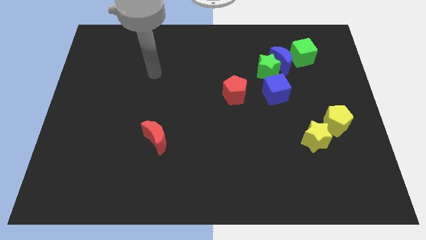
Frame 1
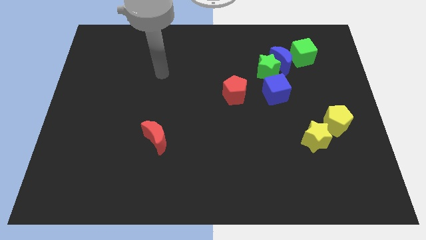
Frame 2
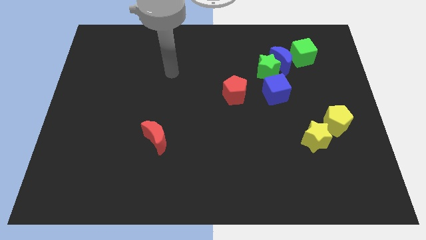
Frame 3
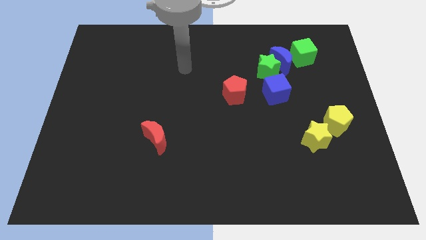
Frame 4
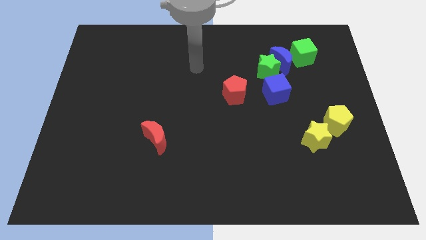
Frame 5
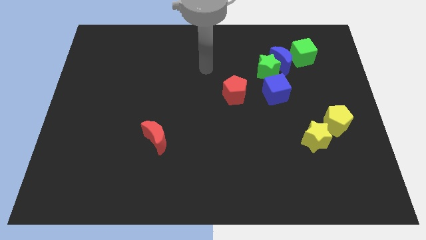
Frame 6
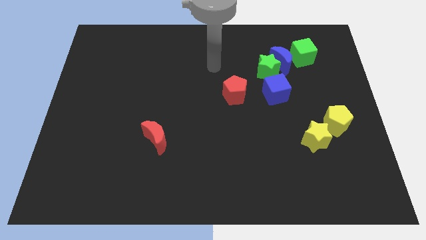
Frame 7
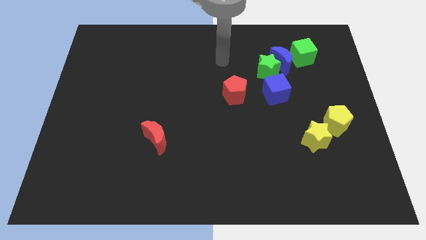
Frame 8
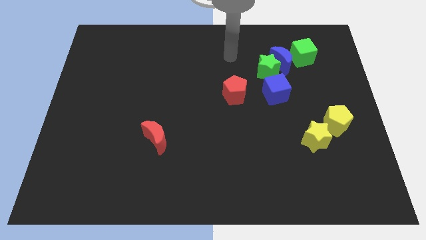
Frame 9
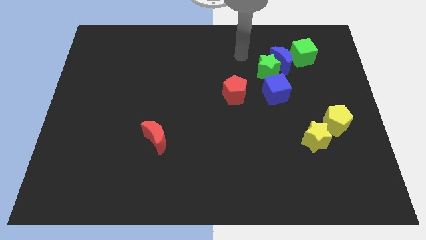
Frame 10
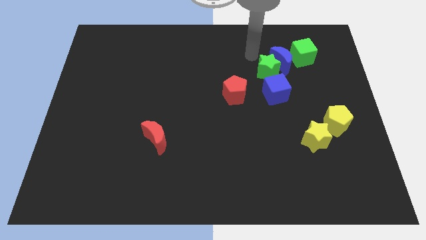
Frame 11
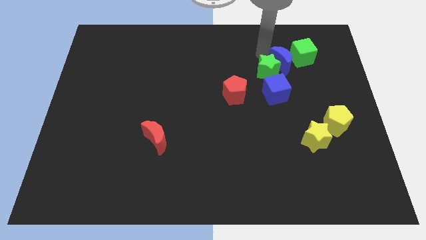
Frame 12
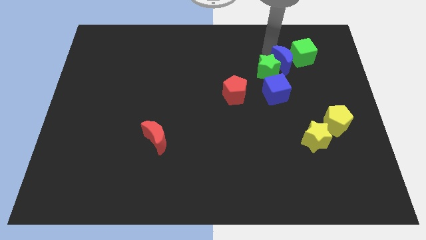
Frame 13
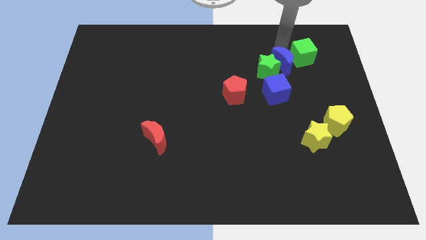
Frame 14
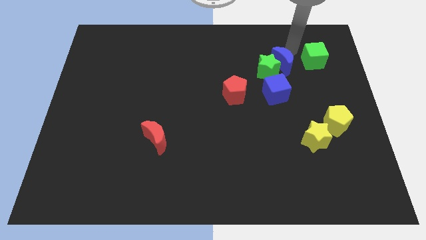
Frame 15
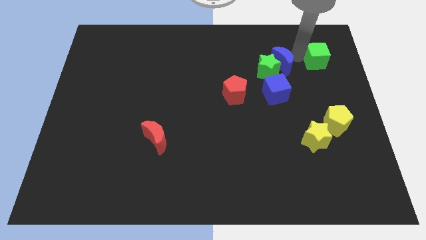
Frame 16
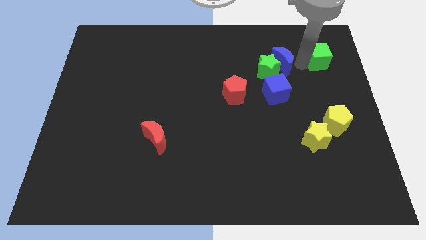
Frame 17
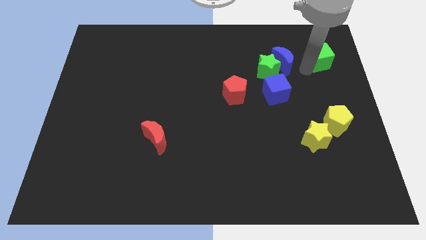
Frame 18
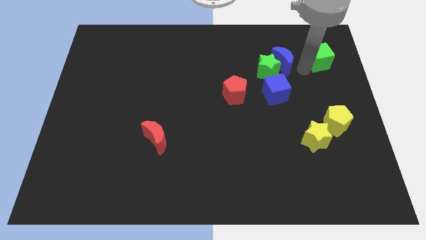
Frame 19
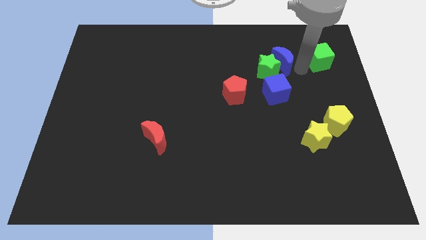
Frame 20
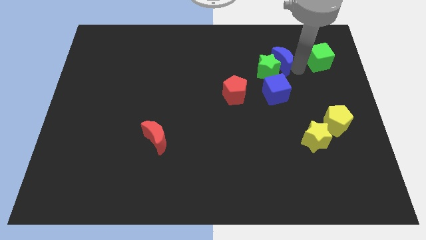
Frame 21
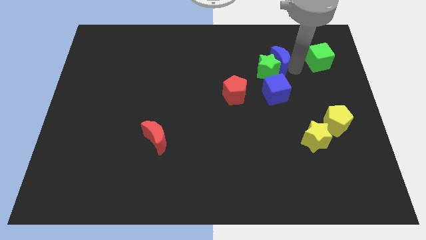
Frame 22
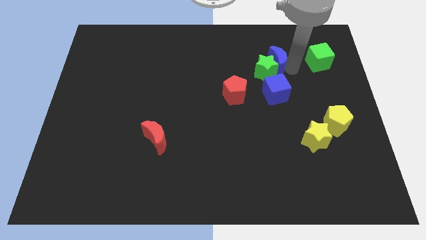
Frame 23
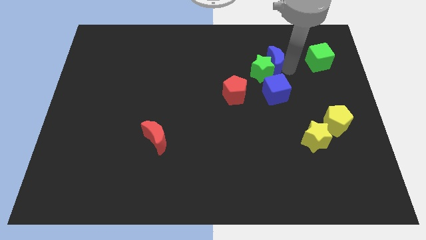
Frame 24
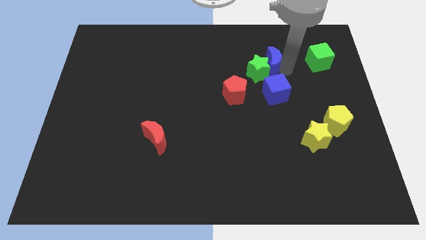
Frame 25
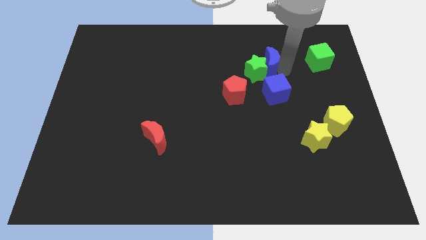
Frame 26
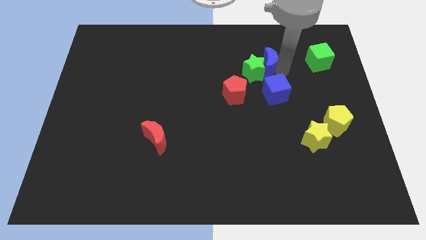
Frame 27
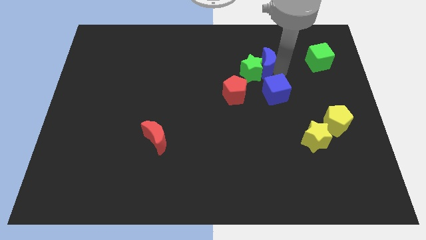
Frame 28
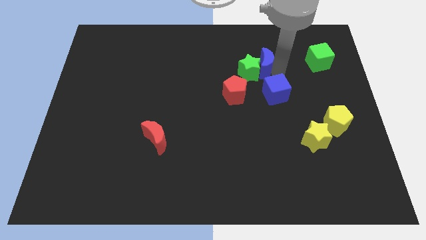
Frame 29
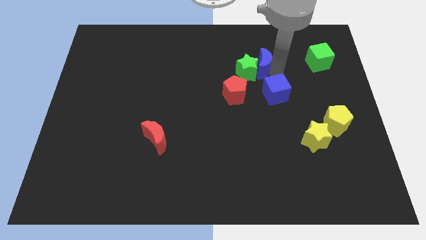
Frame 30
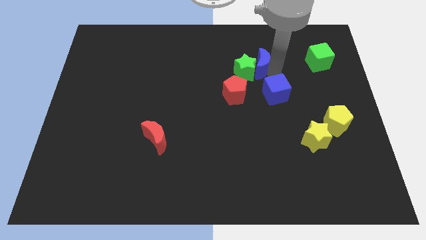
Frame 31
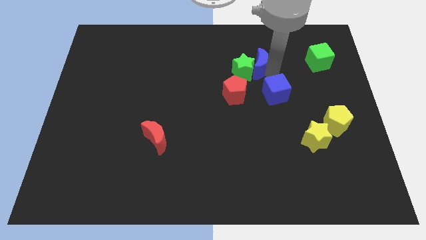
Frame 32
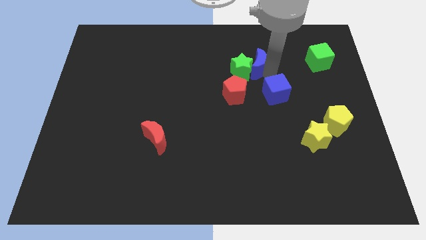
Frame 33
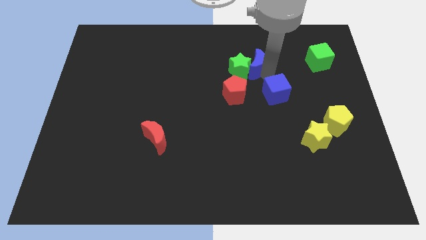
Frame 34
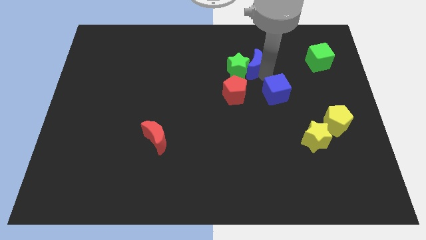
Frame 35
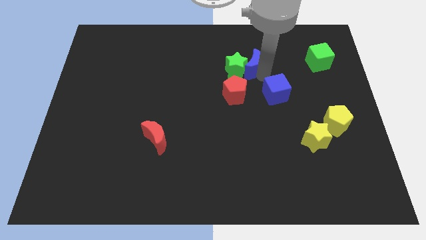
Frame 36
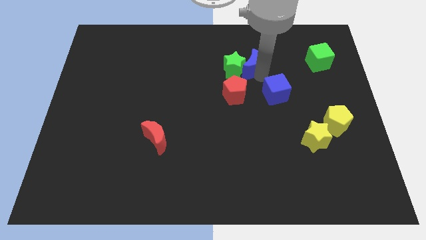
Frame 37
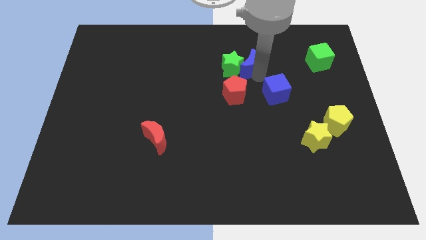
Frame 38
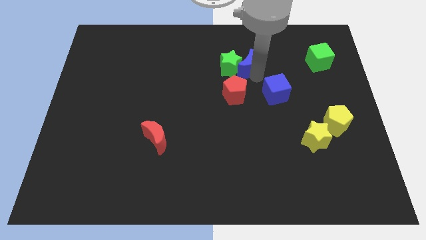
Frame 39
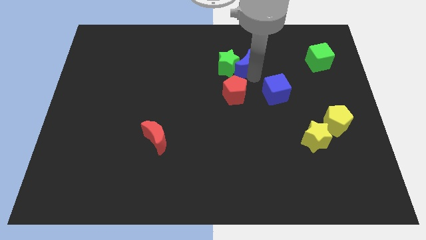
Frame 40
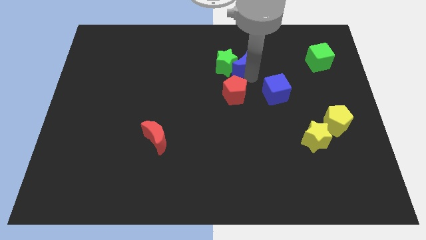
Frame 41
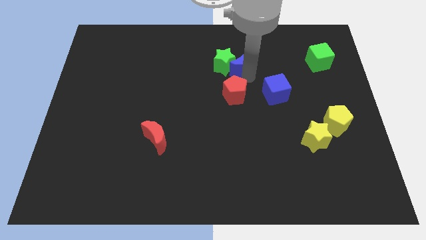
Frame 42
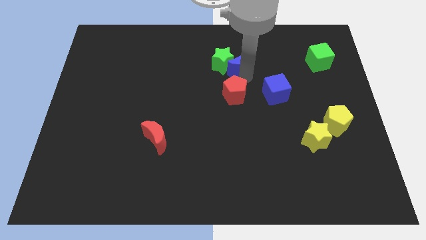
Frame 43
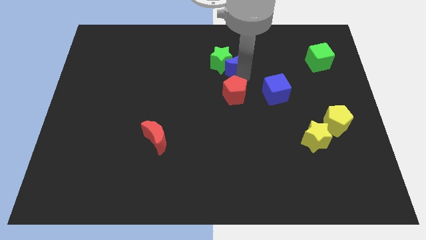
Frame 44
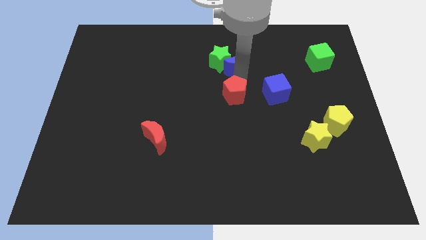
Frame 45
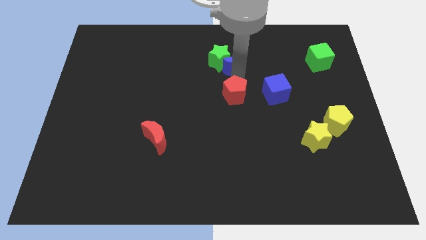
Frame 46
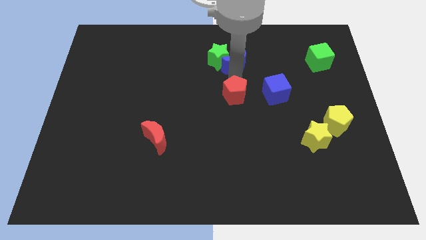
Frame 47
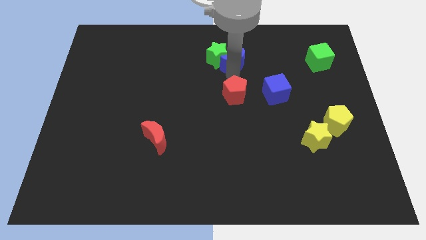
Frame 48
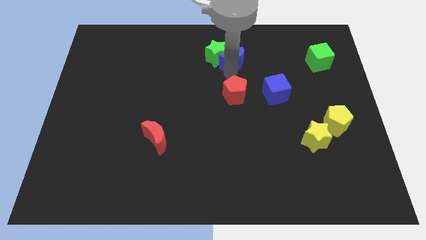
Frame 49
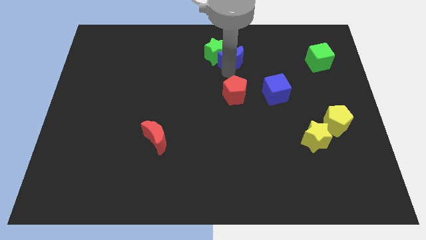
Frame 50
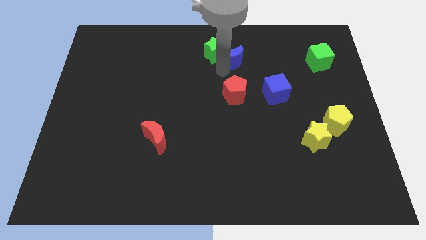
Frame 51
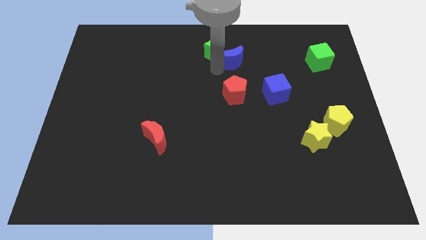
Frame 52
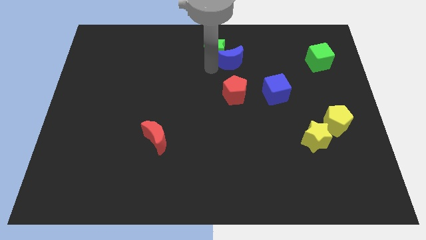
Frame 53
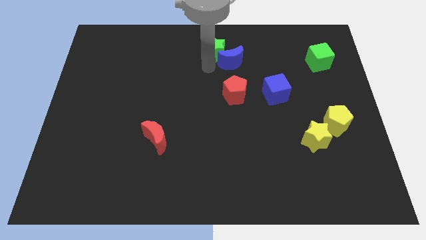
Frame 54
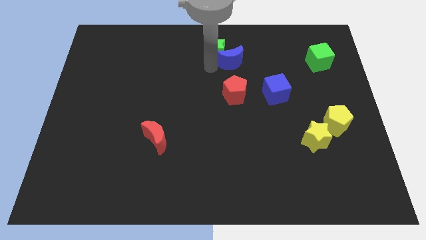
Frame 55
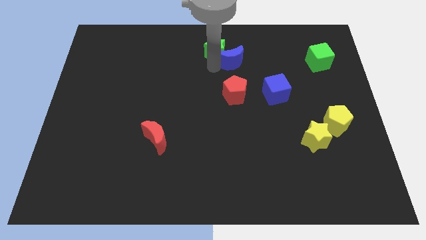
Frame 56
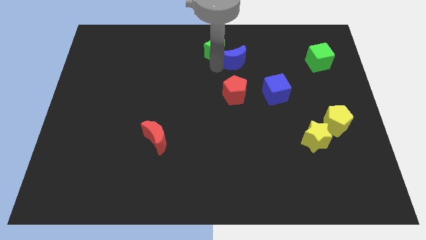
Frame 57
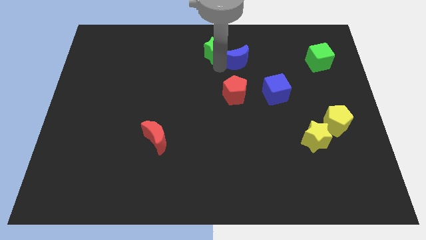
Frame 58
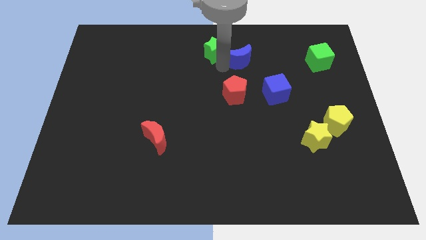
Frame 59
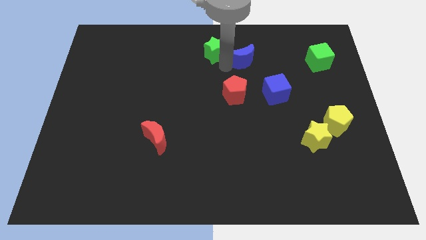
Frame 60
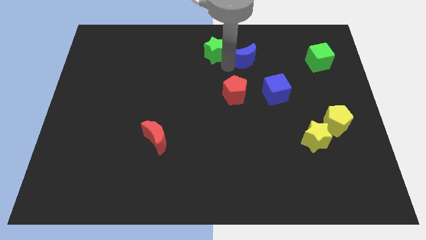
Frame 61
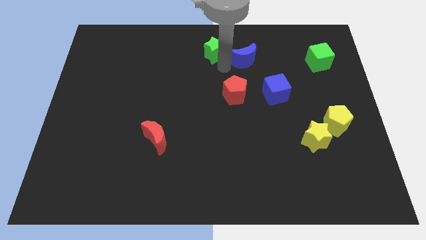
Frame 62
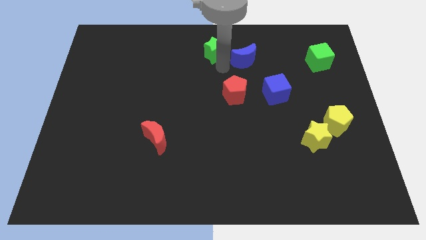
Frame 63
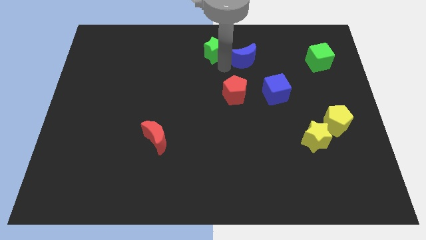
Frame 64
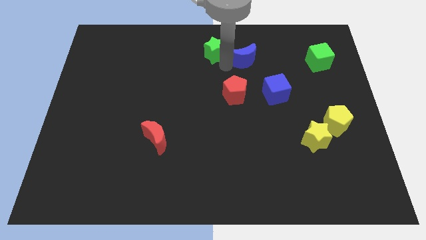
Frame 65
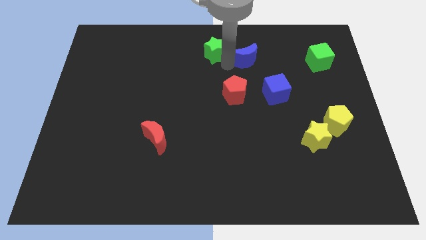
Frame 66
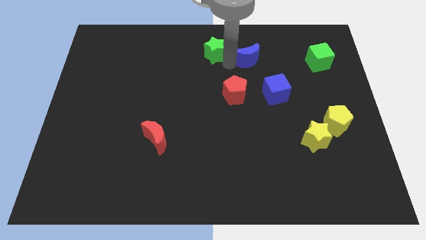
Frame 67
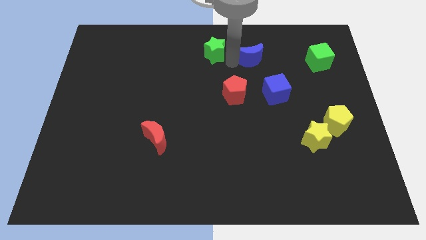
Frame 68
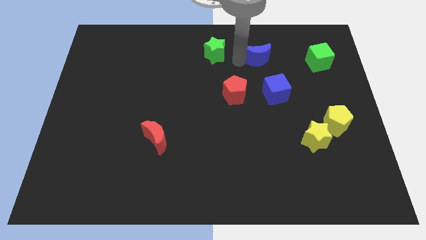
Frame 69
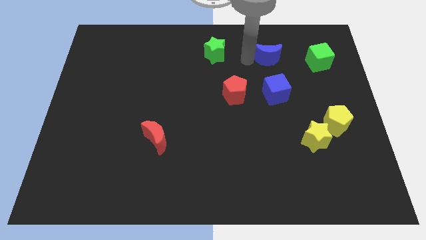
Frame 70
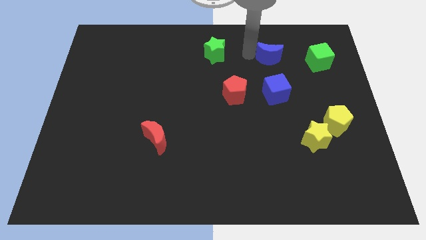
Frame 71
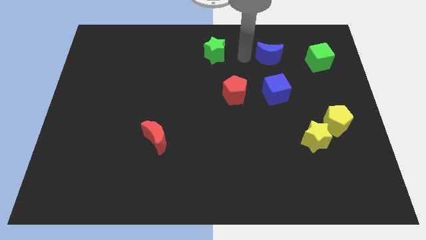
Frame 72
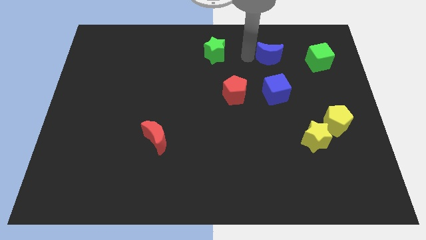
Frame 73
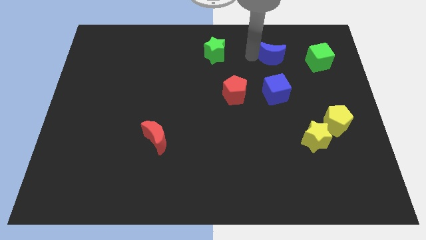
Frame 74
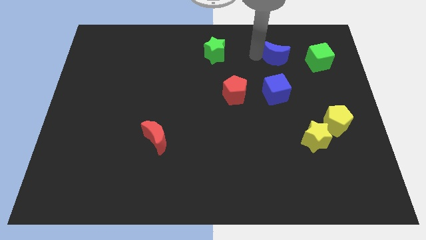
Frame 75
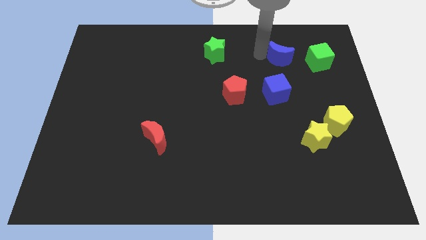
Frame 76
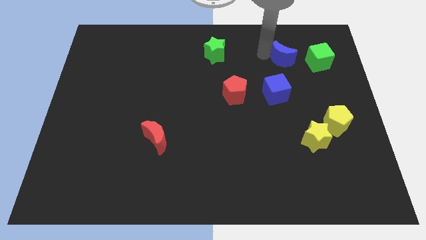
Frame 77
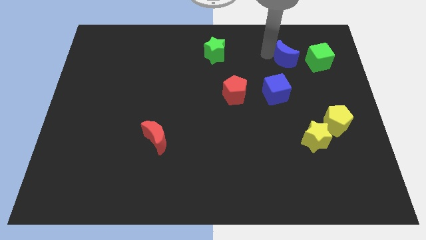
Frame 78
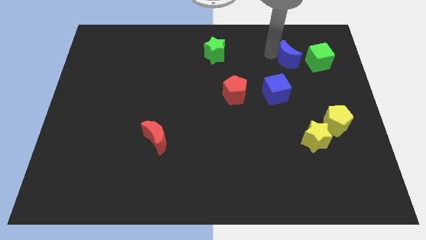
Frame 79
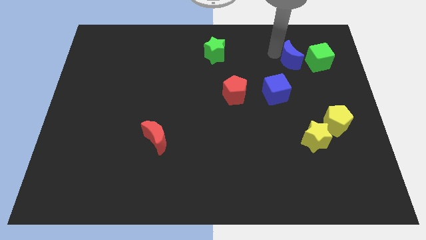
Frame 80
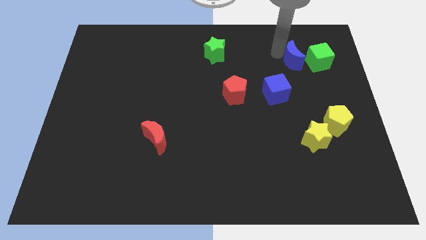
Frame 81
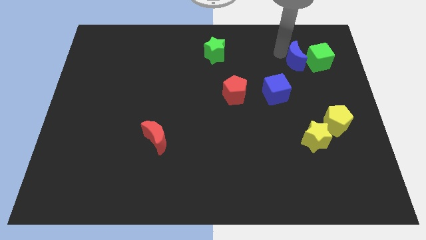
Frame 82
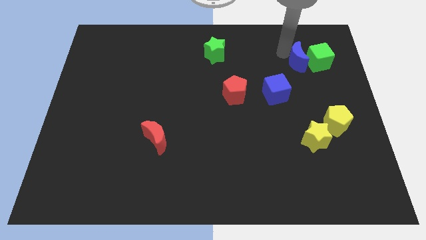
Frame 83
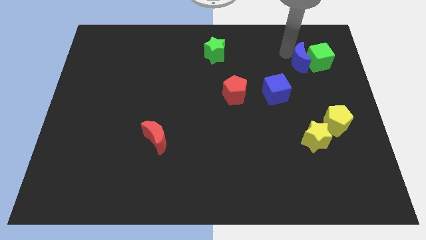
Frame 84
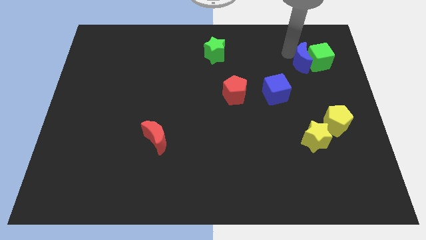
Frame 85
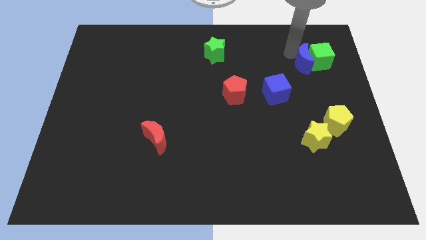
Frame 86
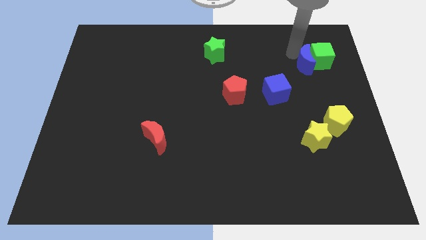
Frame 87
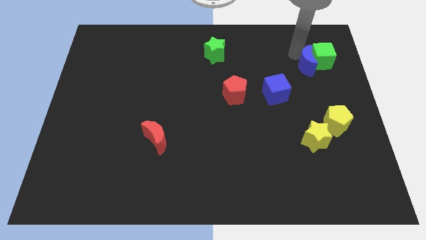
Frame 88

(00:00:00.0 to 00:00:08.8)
pull the blue moon apart from the green star and green cube

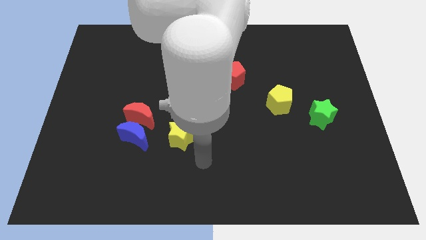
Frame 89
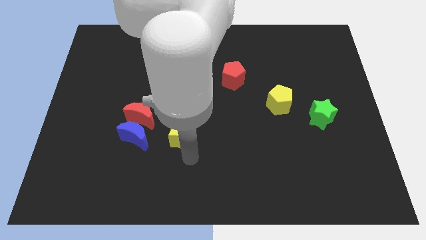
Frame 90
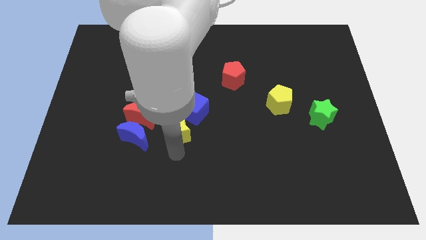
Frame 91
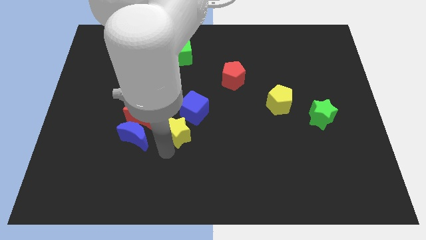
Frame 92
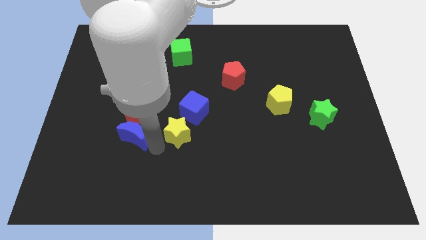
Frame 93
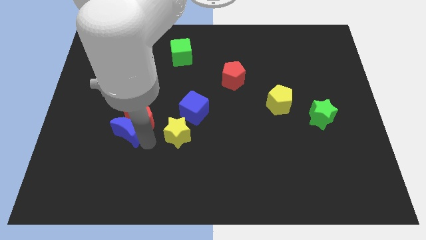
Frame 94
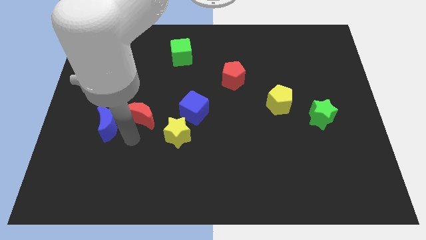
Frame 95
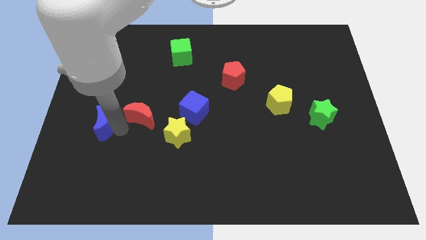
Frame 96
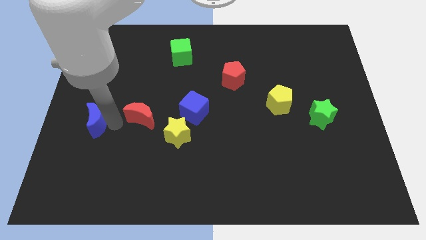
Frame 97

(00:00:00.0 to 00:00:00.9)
separate the red moon from the blue moon
